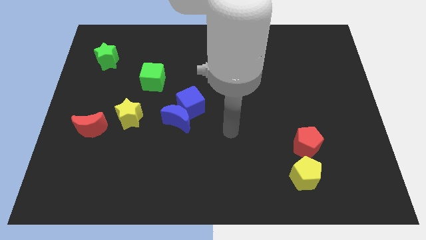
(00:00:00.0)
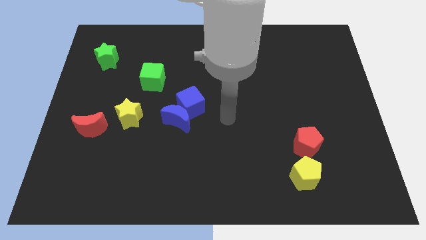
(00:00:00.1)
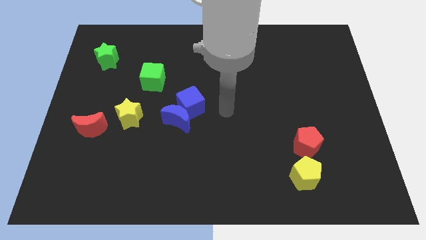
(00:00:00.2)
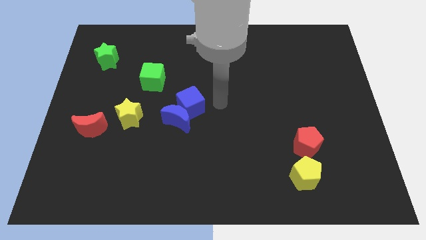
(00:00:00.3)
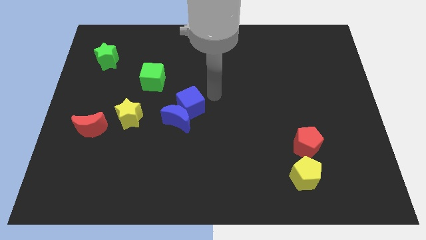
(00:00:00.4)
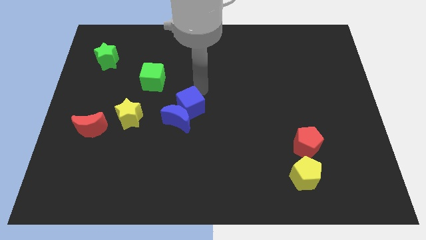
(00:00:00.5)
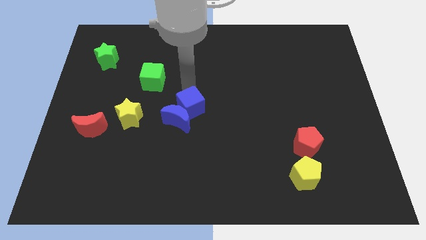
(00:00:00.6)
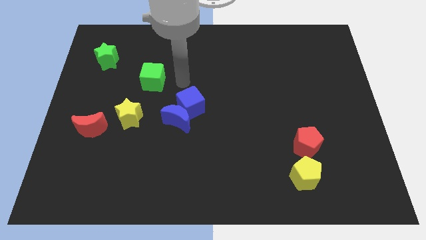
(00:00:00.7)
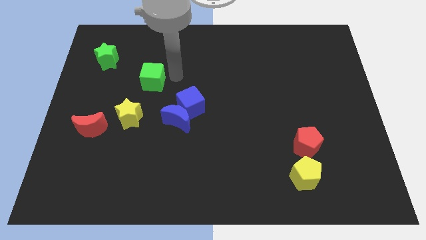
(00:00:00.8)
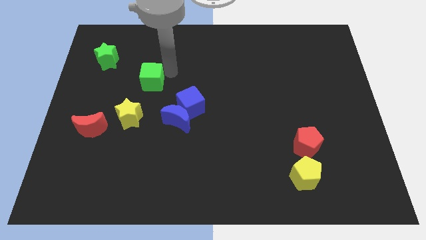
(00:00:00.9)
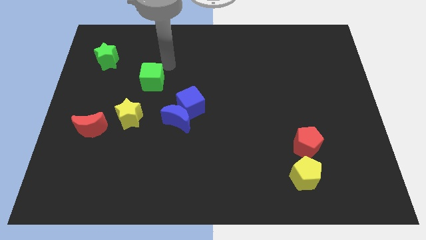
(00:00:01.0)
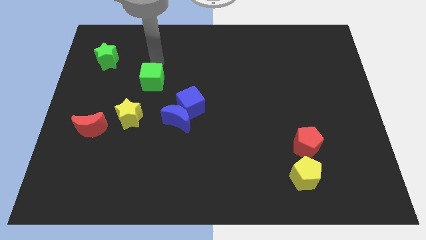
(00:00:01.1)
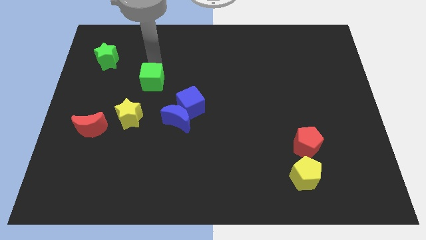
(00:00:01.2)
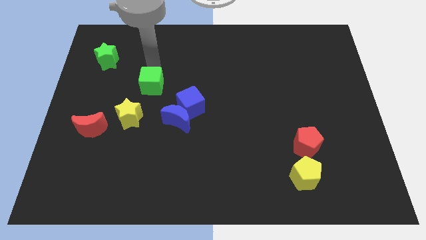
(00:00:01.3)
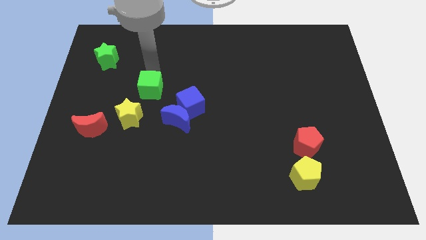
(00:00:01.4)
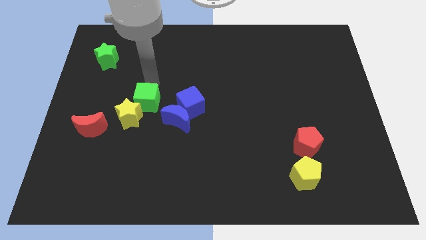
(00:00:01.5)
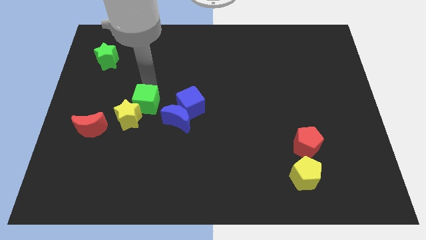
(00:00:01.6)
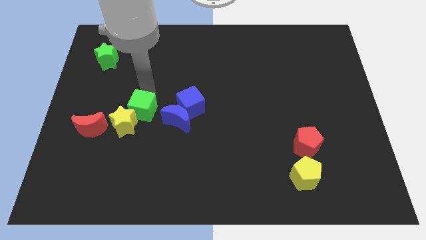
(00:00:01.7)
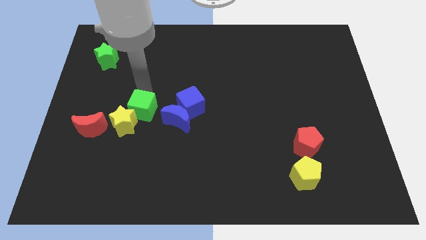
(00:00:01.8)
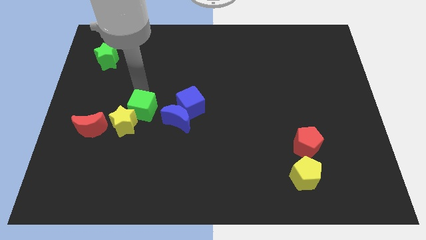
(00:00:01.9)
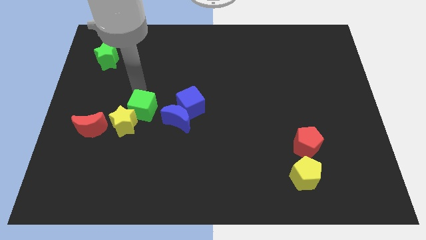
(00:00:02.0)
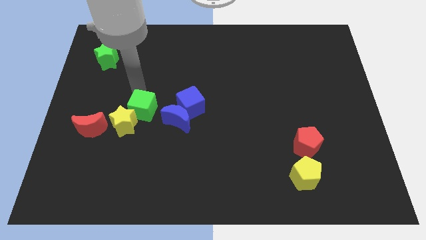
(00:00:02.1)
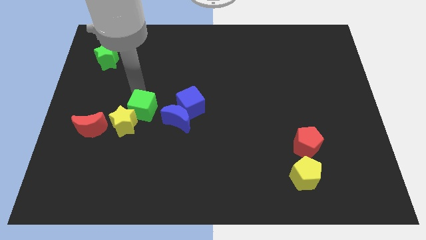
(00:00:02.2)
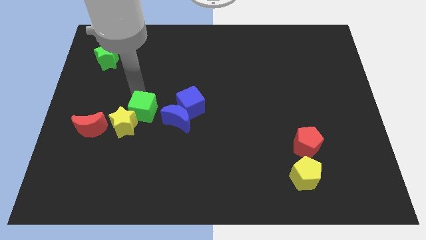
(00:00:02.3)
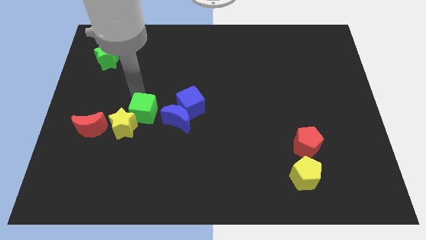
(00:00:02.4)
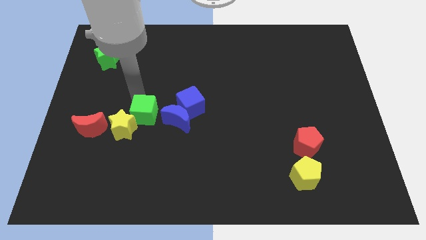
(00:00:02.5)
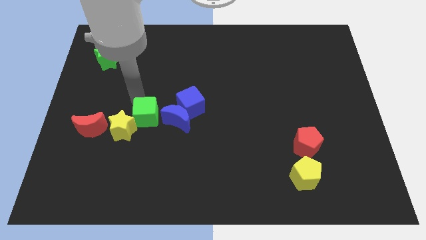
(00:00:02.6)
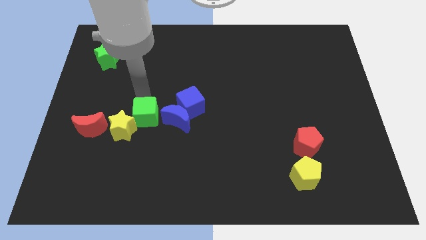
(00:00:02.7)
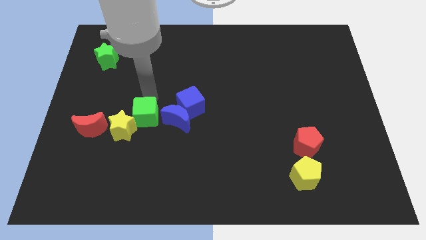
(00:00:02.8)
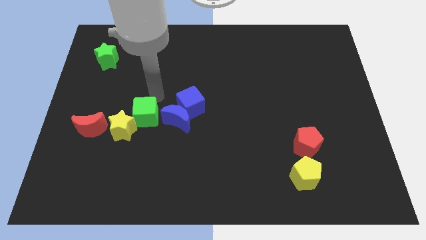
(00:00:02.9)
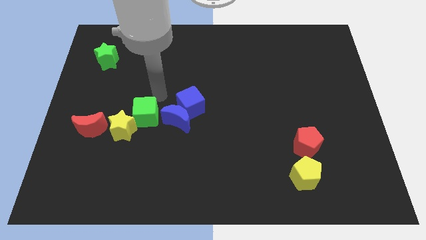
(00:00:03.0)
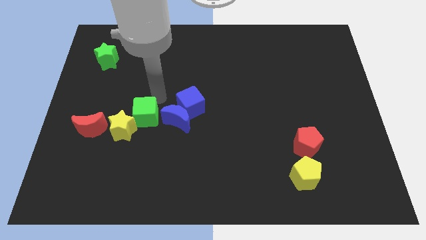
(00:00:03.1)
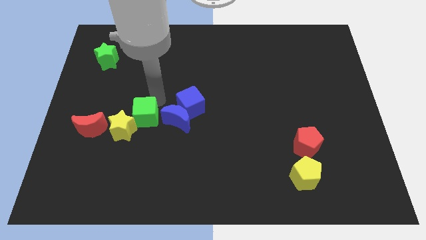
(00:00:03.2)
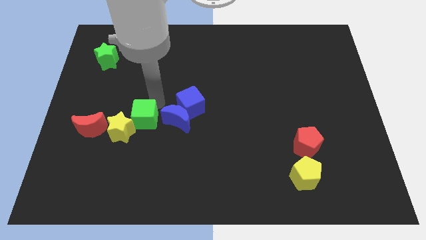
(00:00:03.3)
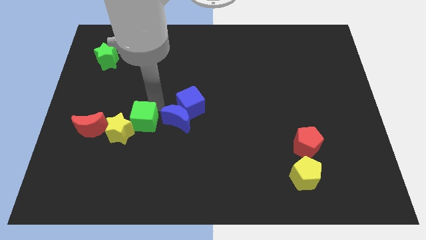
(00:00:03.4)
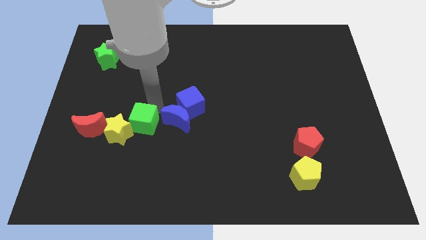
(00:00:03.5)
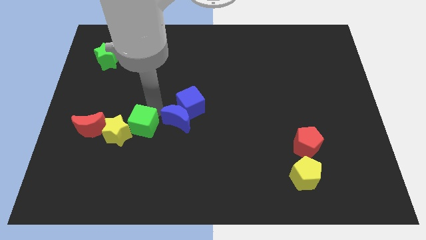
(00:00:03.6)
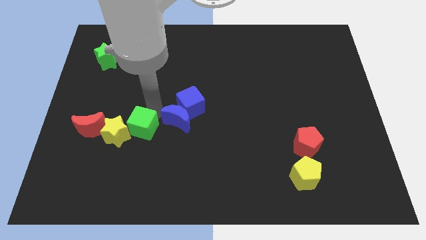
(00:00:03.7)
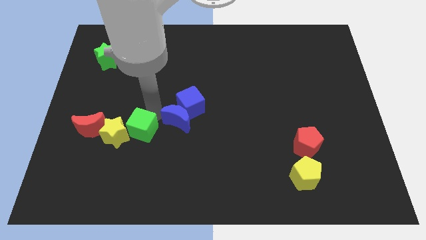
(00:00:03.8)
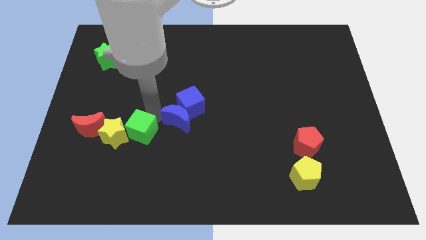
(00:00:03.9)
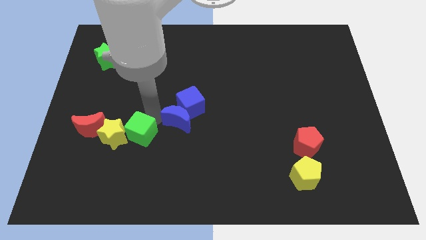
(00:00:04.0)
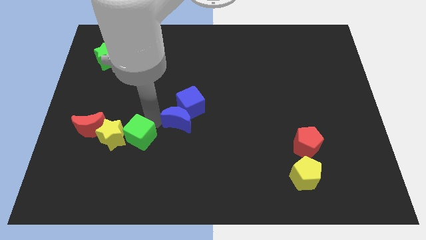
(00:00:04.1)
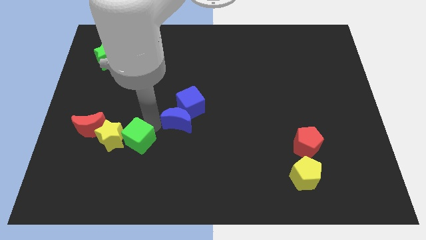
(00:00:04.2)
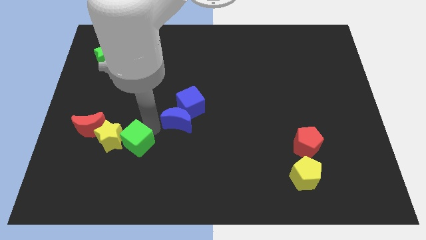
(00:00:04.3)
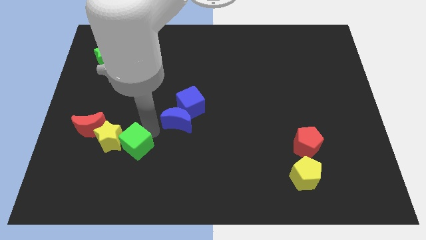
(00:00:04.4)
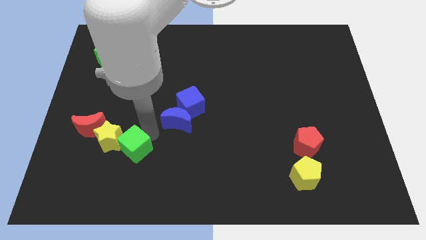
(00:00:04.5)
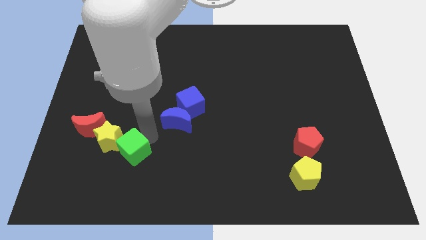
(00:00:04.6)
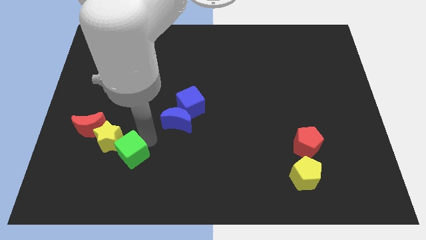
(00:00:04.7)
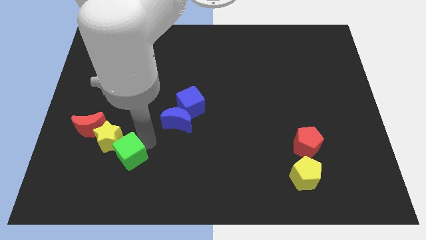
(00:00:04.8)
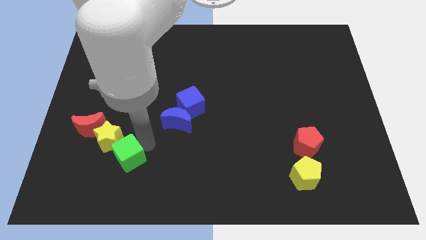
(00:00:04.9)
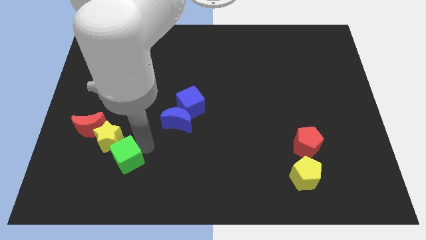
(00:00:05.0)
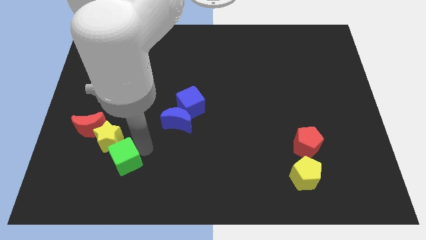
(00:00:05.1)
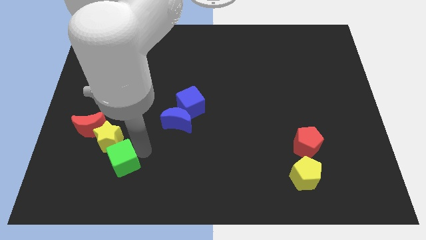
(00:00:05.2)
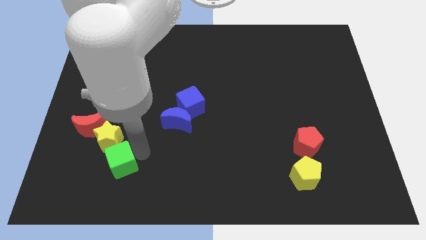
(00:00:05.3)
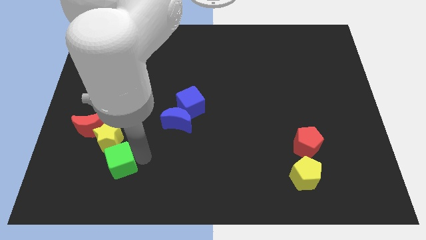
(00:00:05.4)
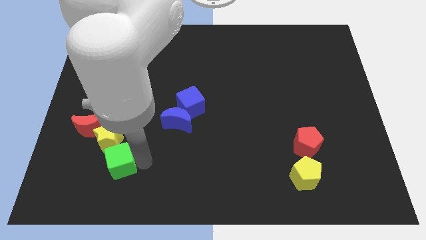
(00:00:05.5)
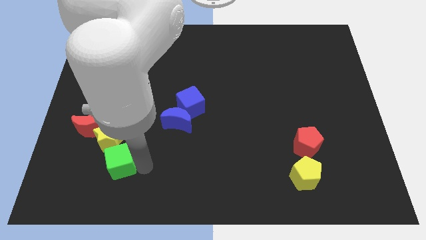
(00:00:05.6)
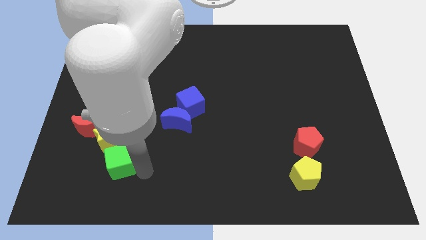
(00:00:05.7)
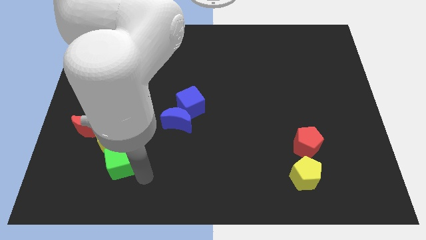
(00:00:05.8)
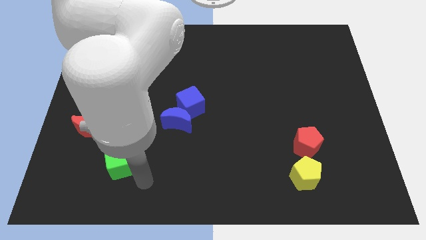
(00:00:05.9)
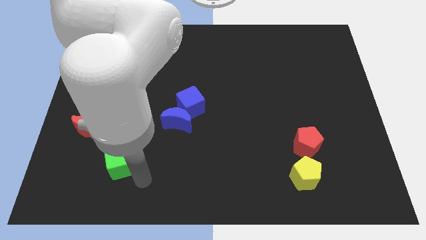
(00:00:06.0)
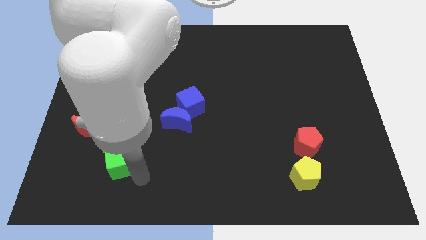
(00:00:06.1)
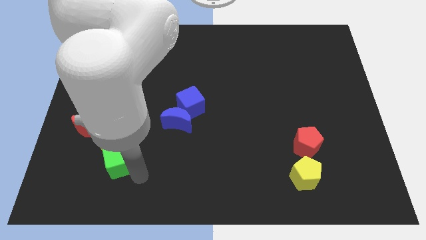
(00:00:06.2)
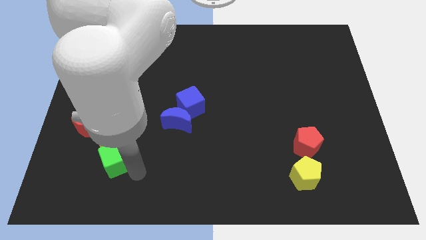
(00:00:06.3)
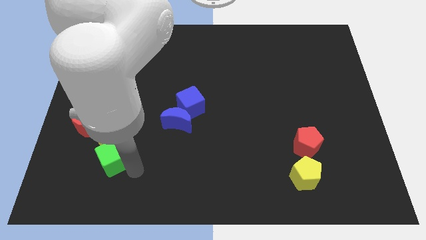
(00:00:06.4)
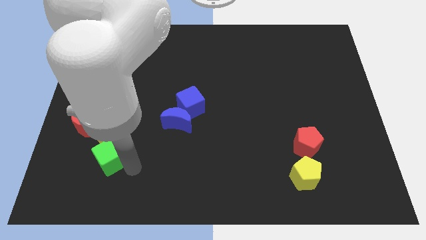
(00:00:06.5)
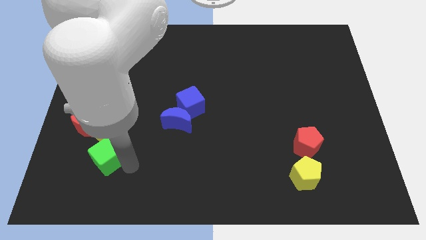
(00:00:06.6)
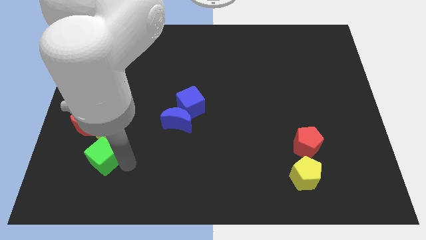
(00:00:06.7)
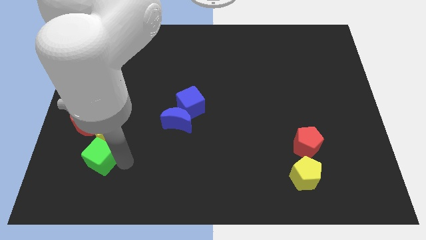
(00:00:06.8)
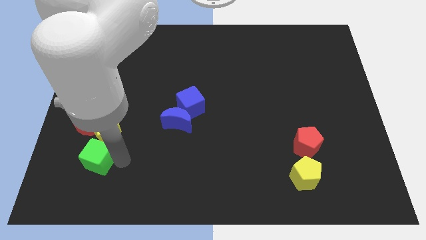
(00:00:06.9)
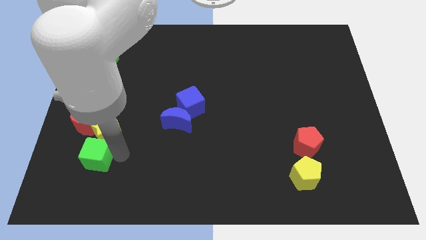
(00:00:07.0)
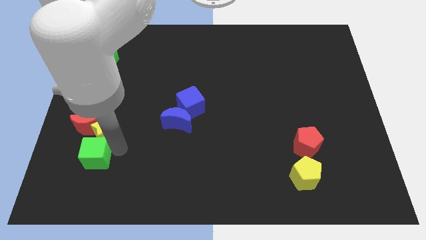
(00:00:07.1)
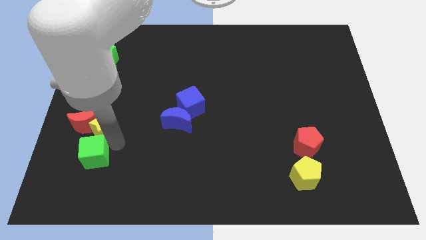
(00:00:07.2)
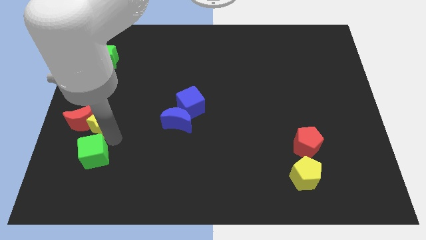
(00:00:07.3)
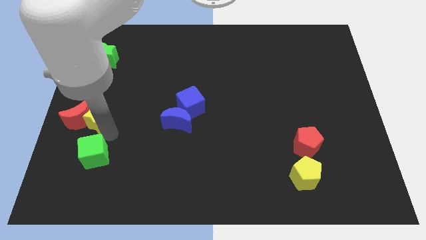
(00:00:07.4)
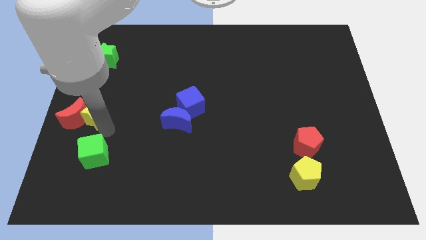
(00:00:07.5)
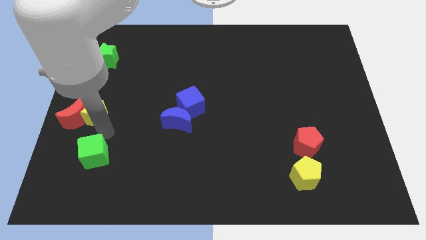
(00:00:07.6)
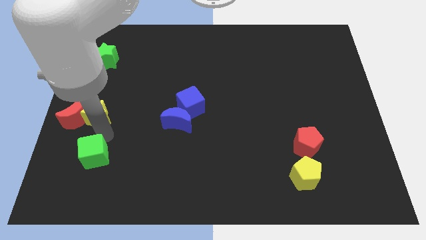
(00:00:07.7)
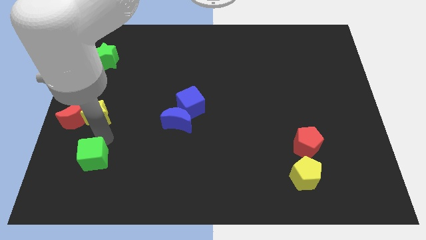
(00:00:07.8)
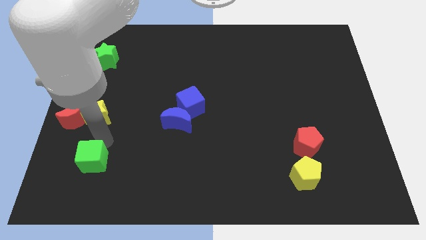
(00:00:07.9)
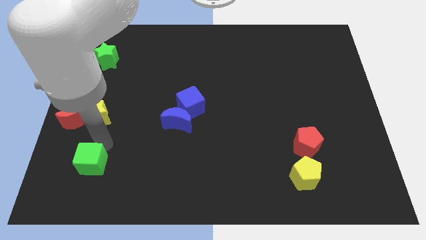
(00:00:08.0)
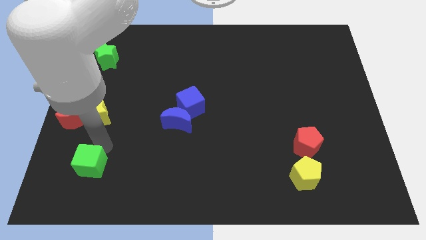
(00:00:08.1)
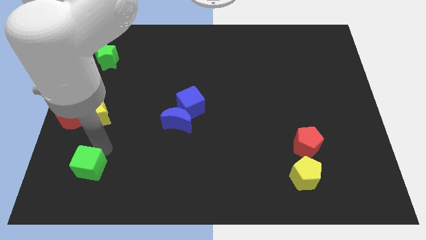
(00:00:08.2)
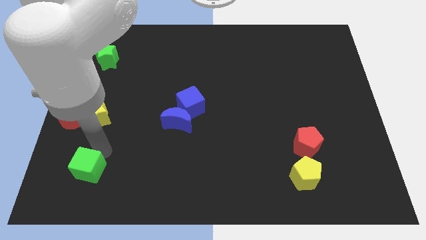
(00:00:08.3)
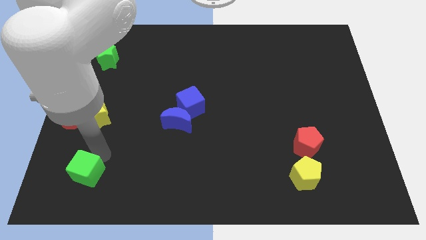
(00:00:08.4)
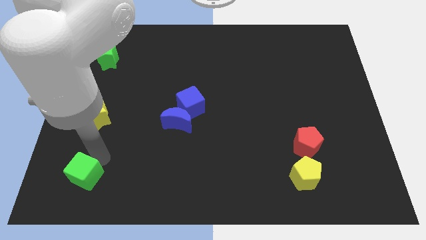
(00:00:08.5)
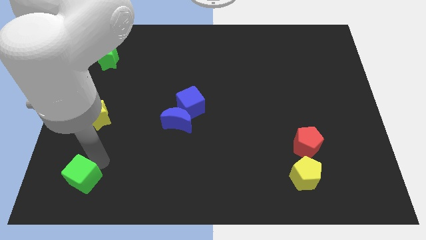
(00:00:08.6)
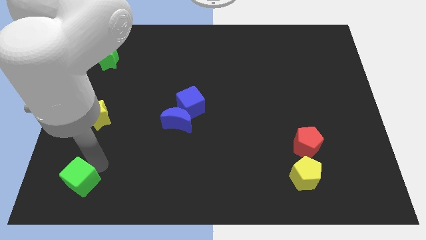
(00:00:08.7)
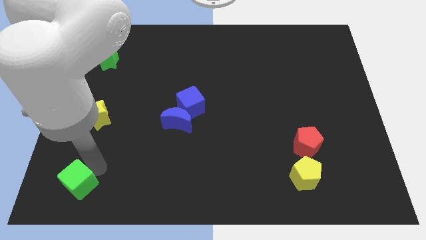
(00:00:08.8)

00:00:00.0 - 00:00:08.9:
slide the green cube to the lower left corner
